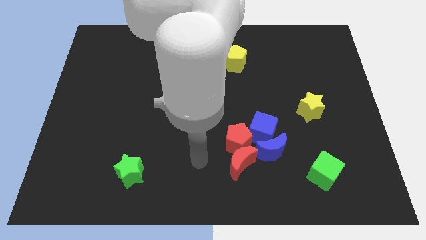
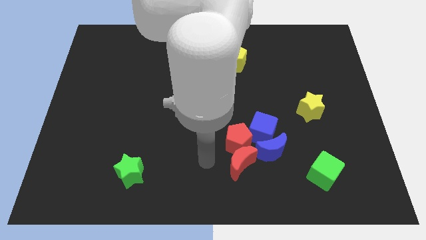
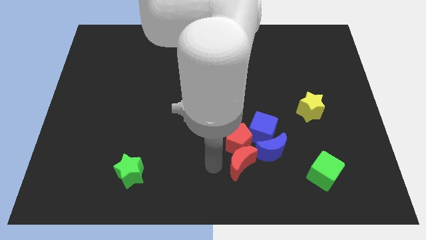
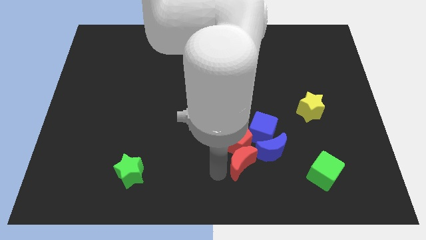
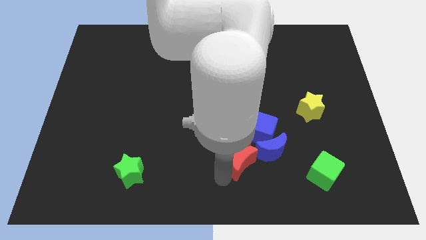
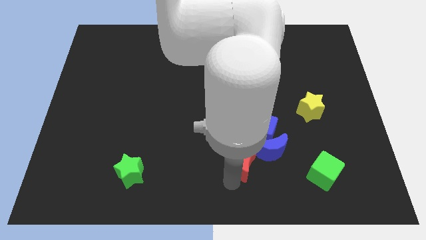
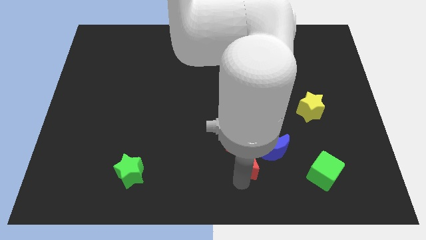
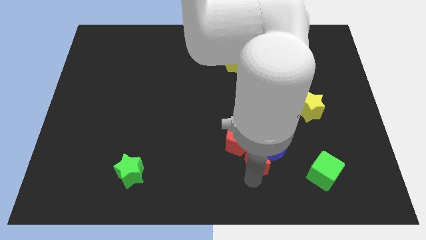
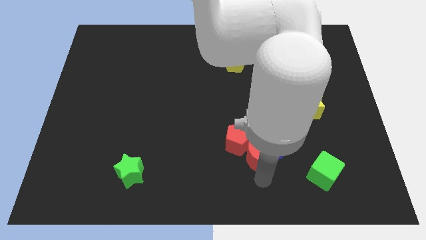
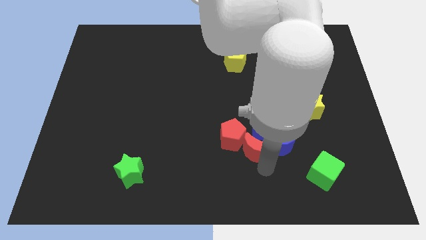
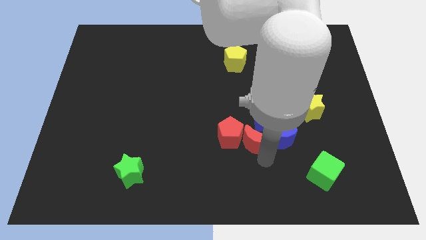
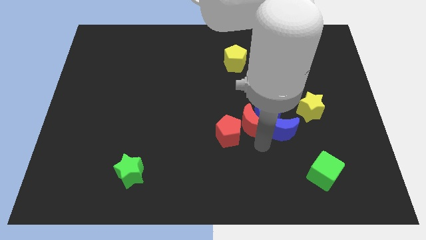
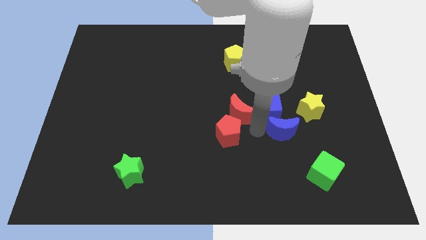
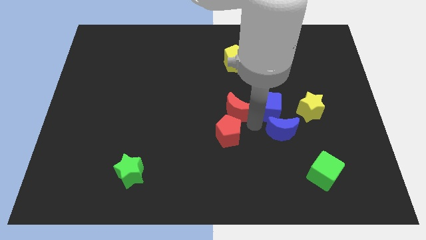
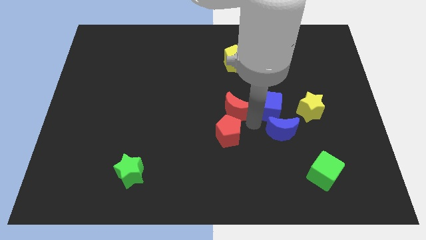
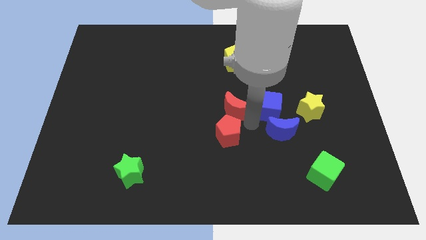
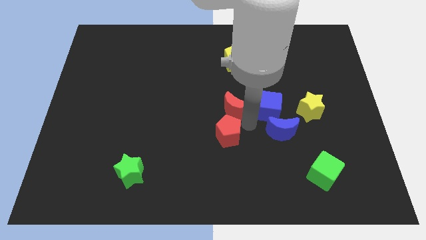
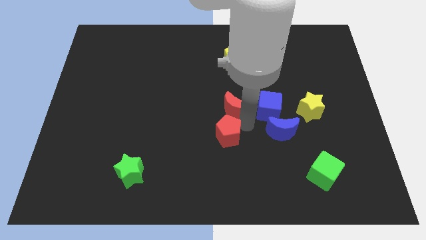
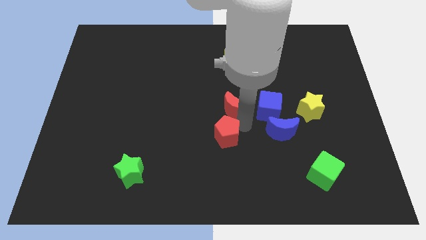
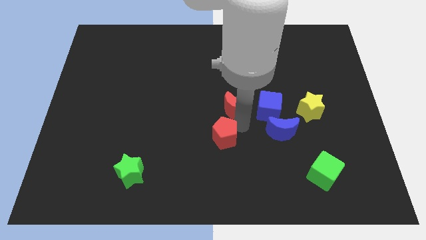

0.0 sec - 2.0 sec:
move the red pentagon away from the group of blocks

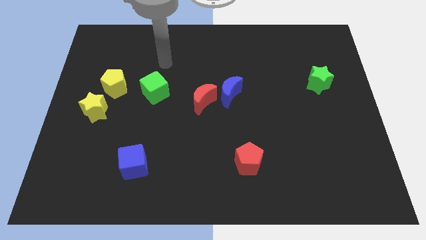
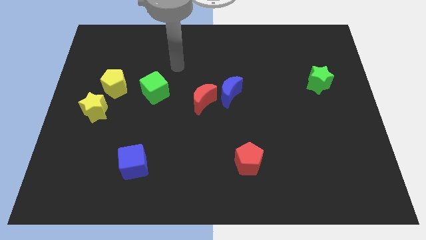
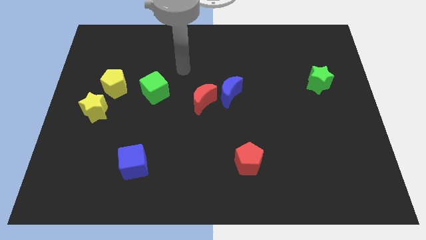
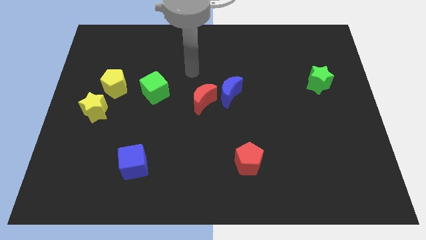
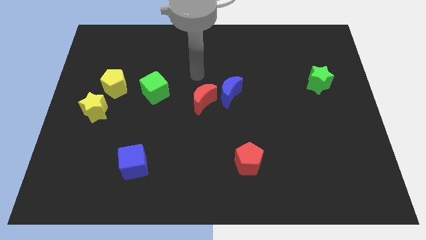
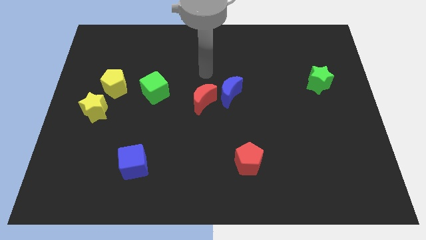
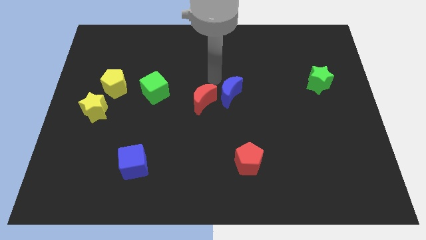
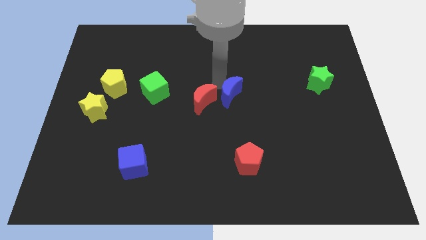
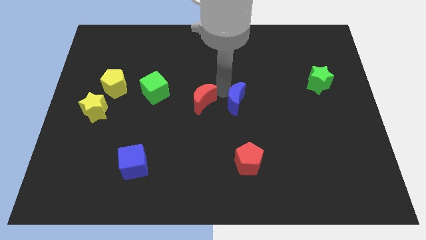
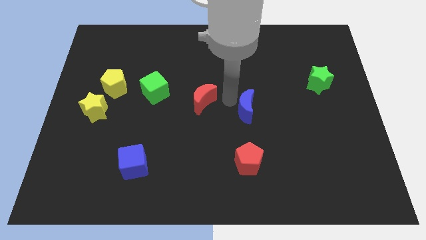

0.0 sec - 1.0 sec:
pull the red moon apart from the blue moon

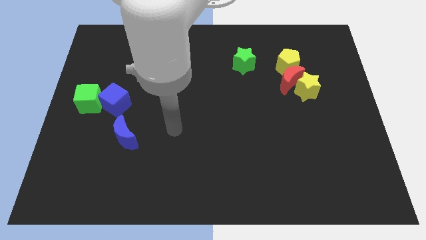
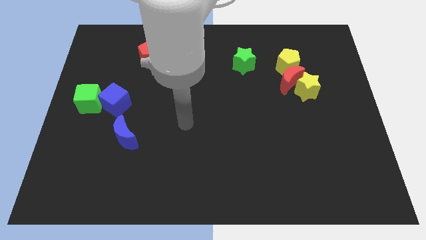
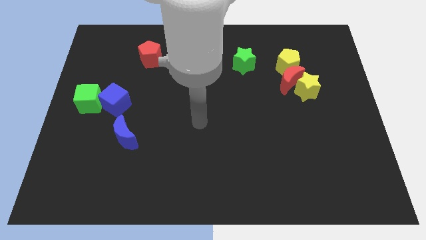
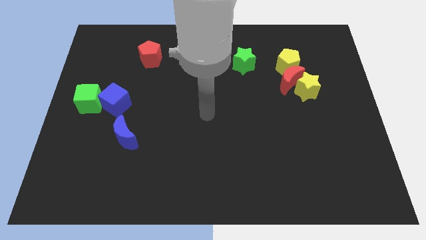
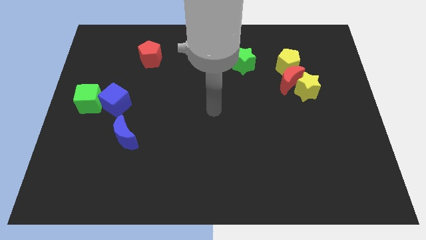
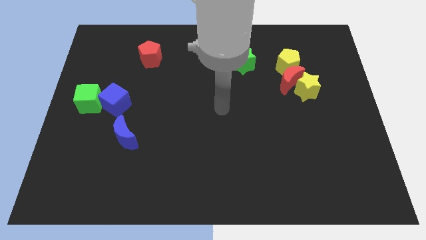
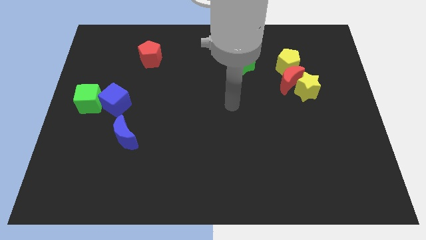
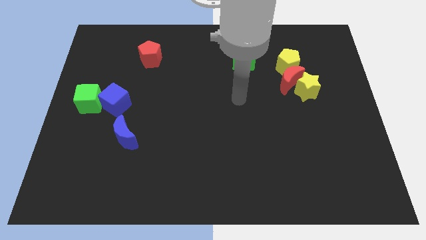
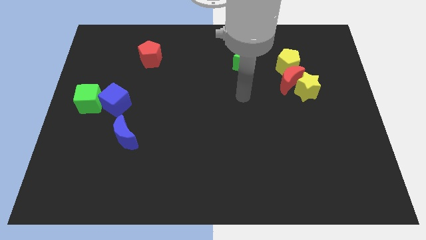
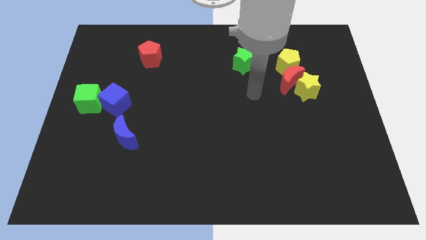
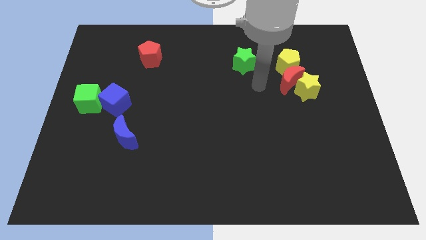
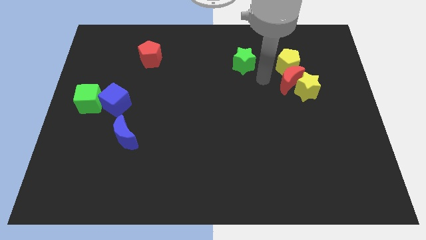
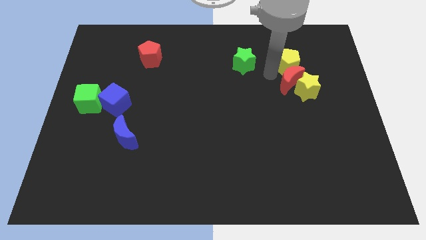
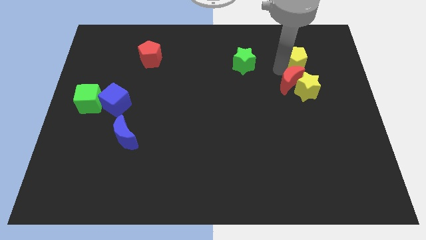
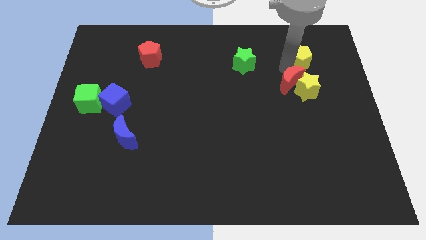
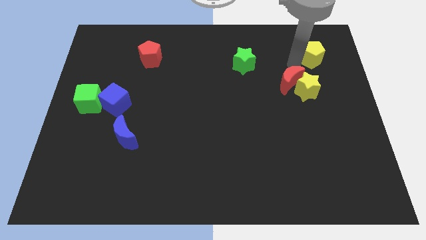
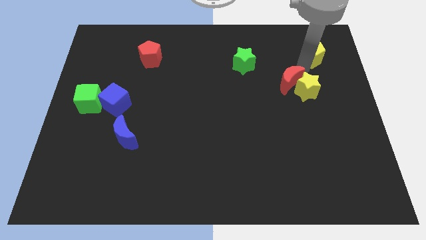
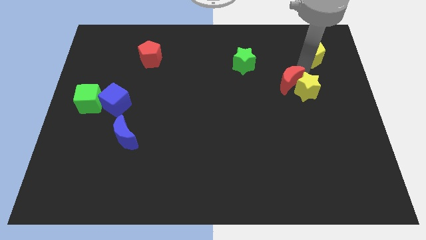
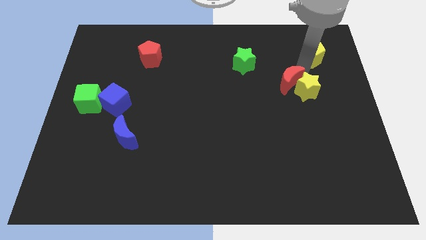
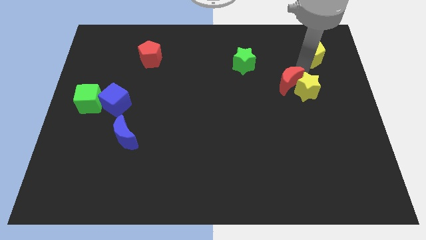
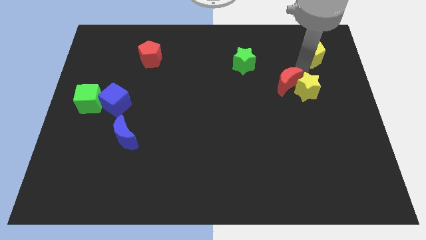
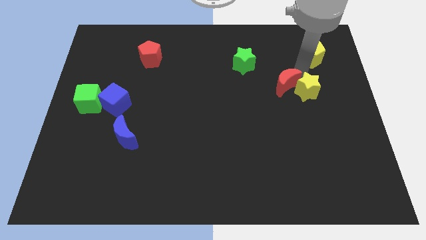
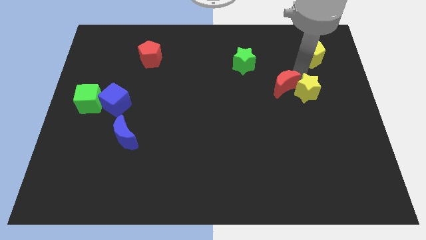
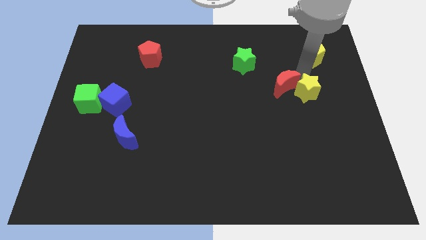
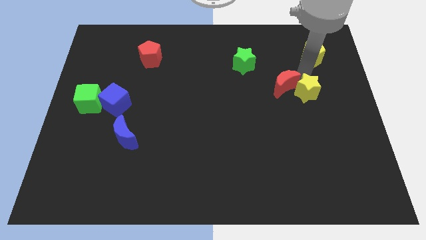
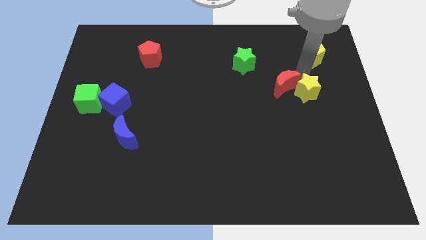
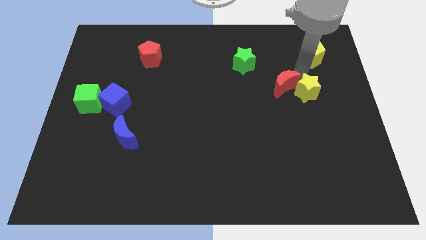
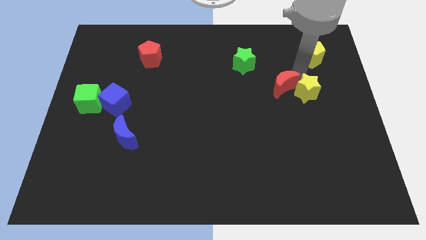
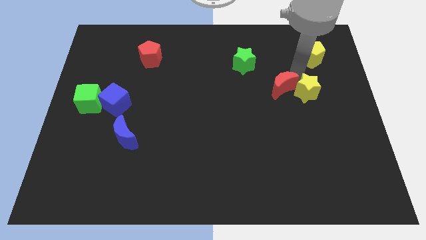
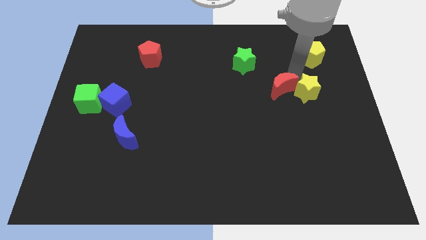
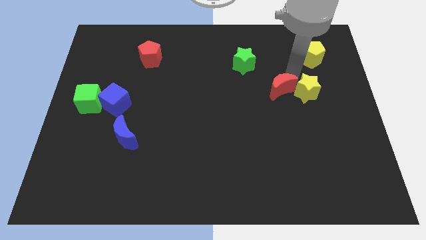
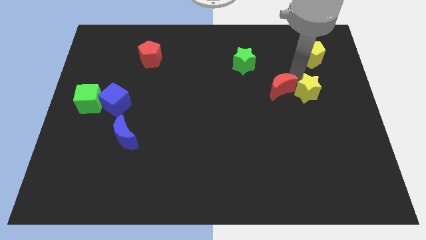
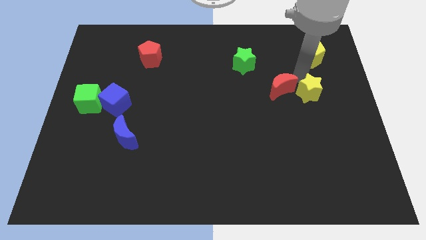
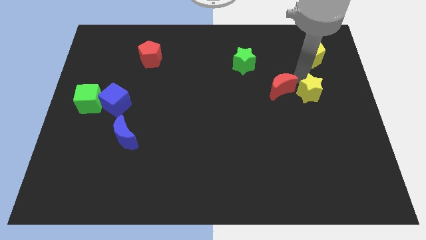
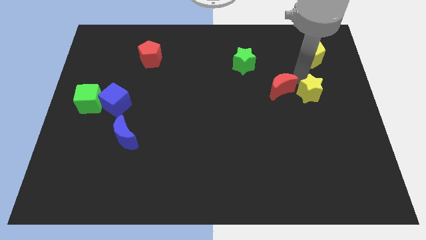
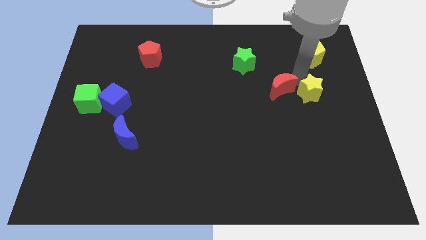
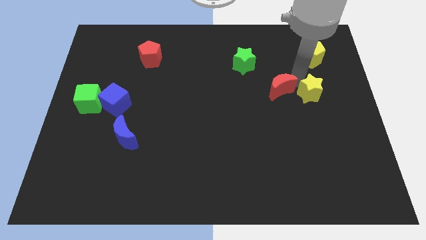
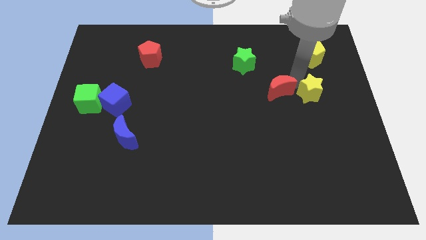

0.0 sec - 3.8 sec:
pull the red moon apart from the yellow star and yellow pentagon

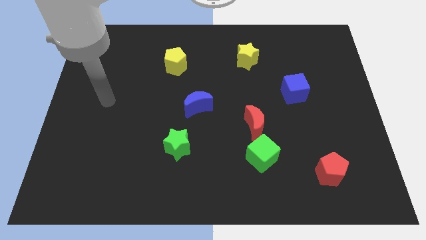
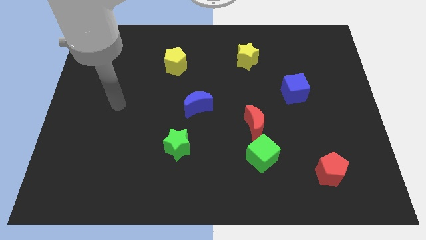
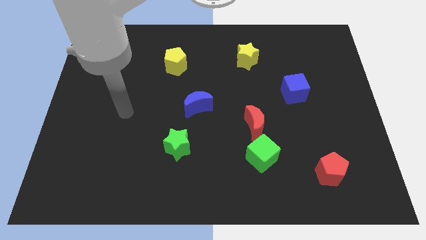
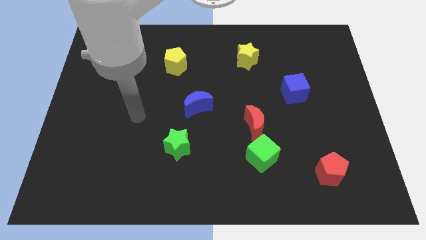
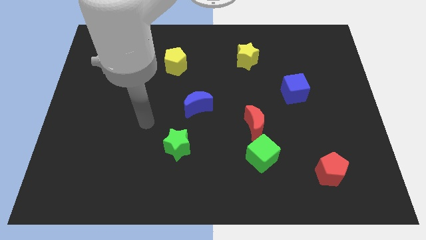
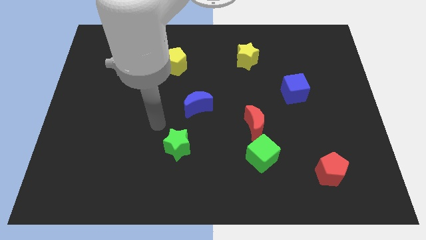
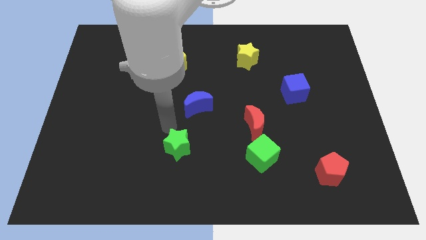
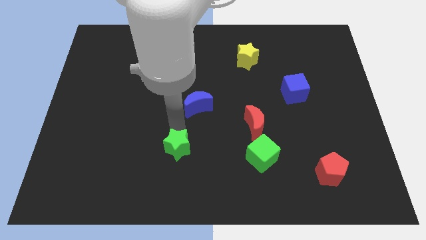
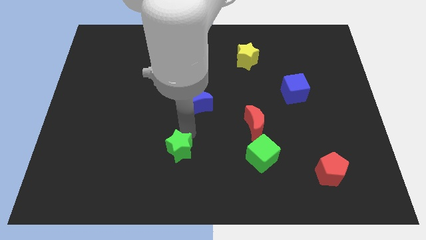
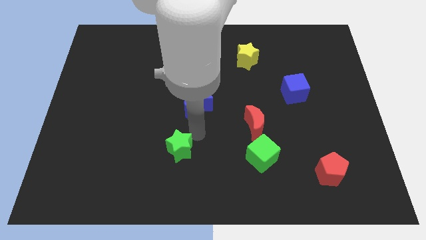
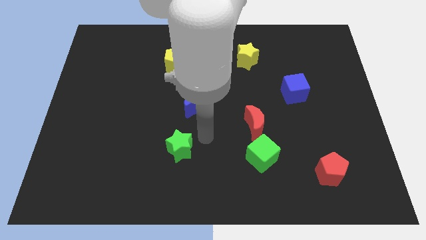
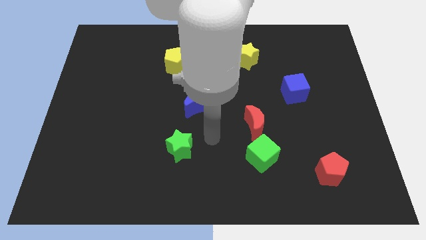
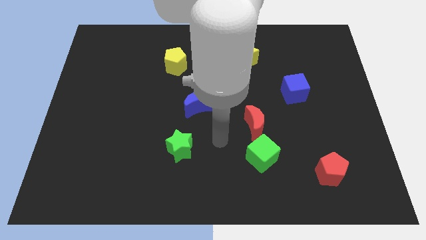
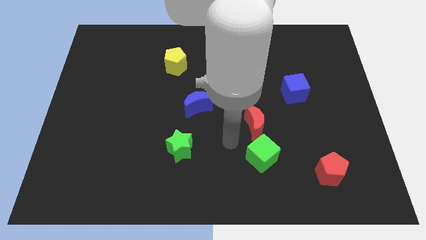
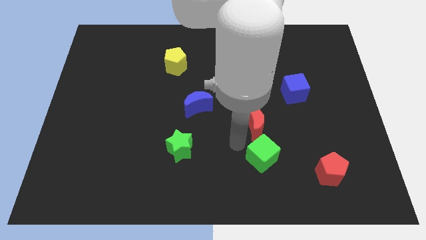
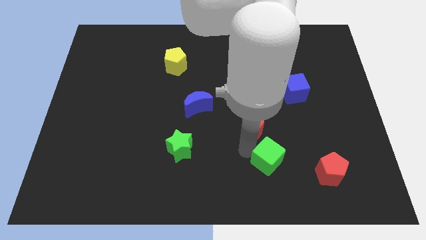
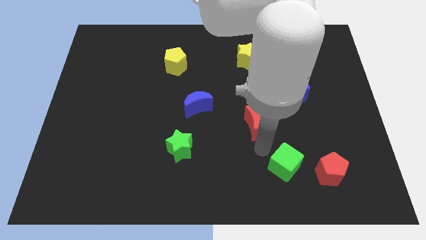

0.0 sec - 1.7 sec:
pull the red moon apart from the green cube

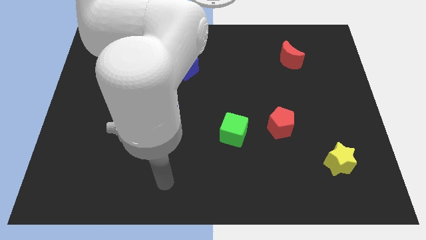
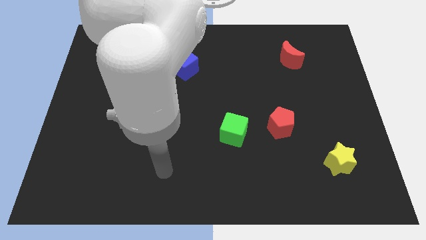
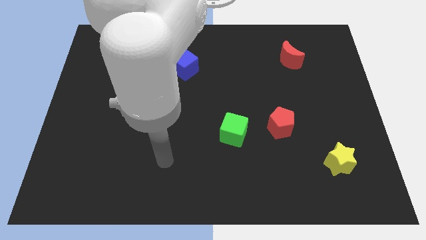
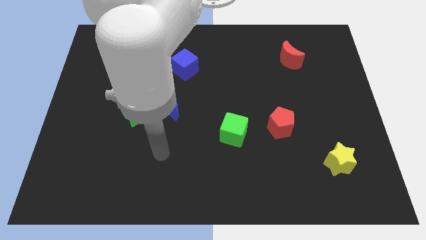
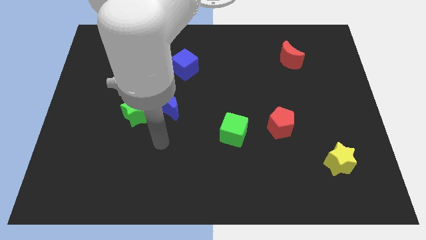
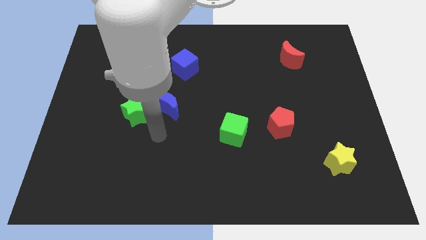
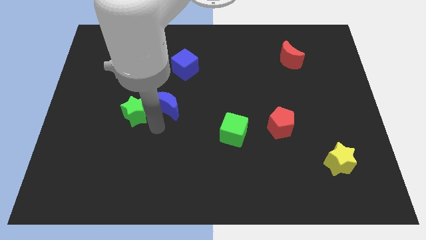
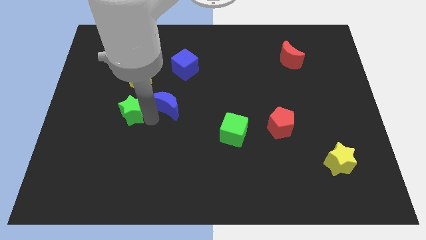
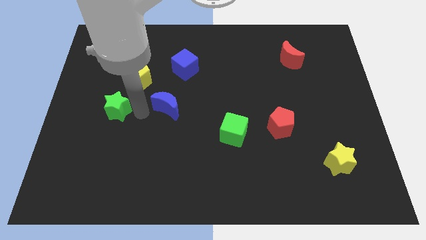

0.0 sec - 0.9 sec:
separate the blue moon from the green star
